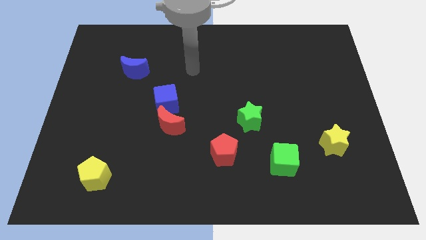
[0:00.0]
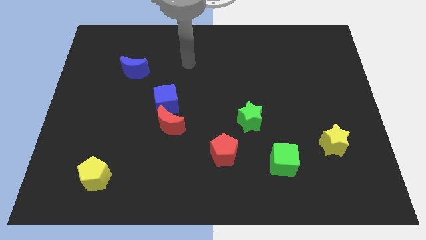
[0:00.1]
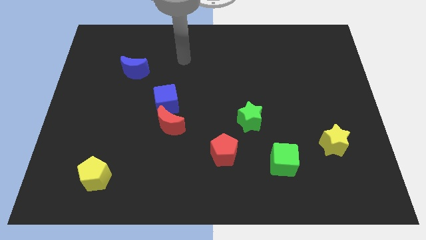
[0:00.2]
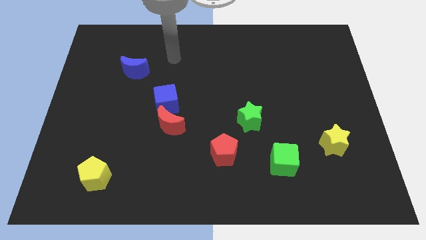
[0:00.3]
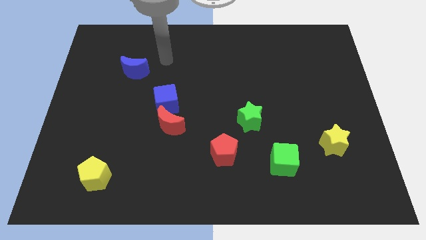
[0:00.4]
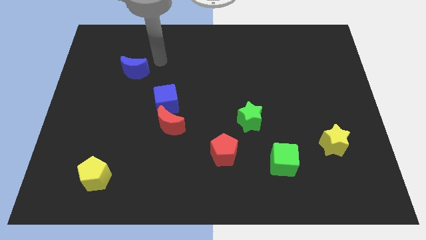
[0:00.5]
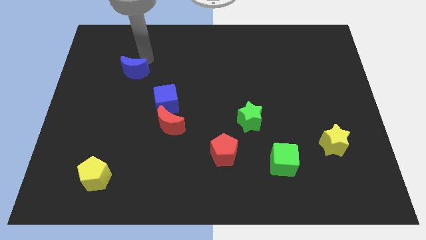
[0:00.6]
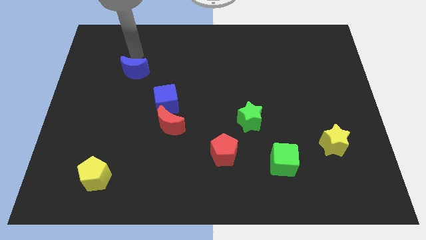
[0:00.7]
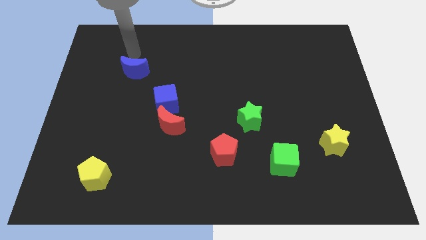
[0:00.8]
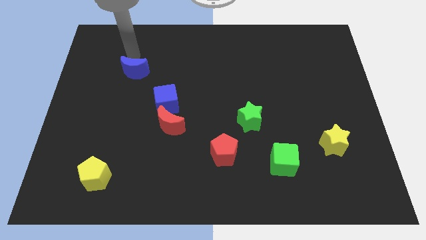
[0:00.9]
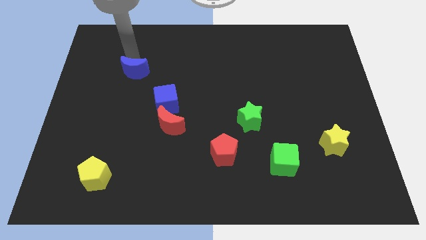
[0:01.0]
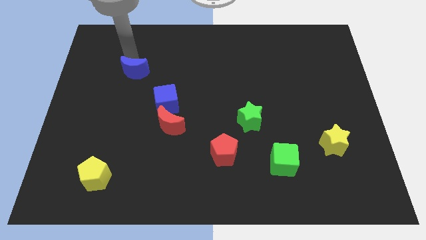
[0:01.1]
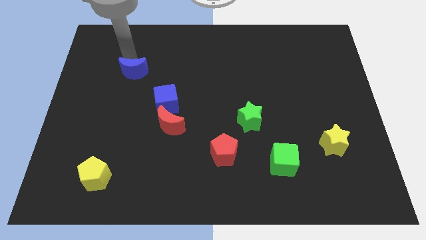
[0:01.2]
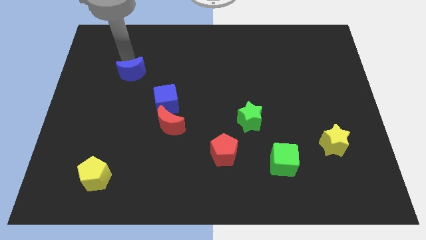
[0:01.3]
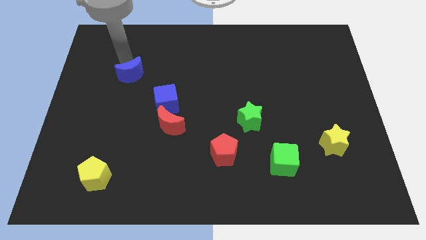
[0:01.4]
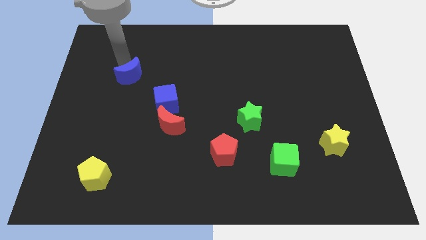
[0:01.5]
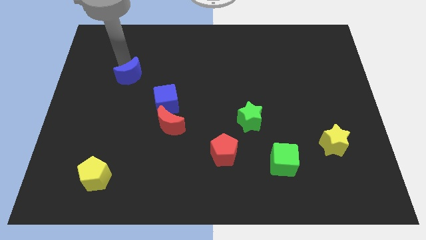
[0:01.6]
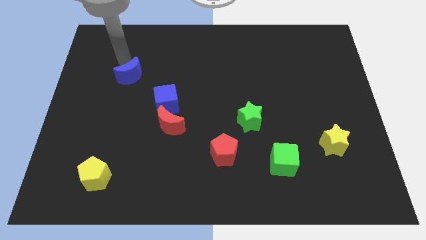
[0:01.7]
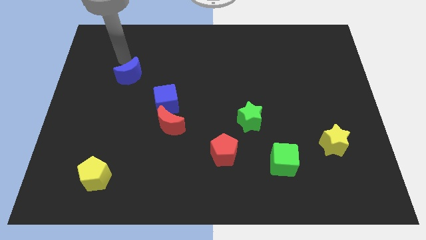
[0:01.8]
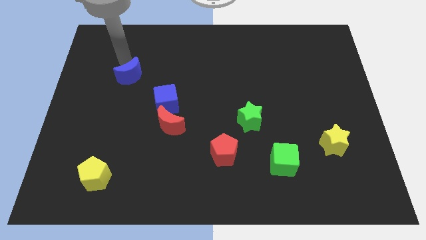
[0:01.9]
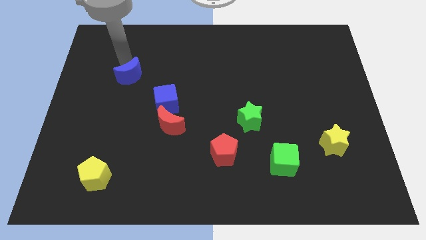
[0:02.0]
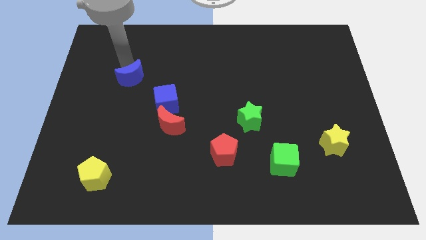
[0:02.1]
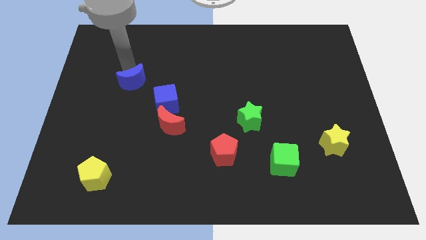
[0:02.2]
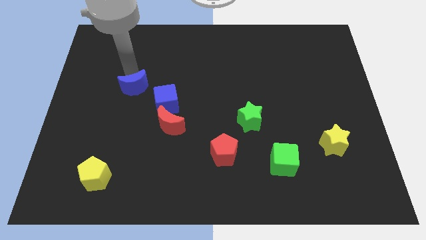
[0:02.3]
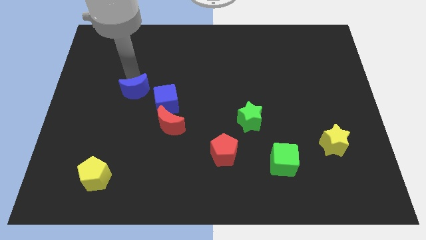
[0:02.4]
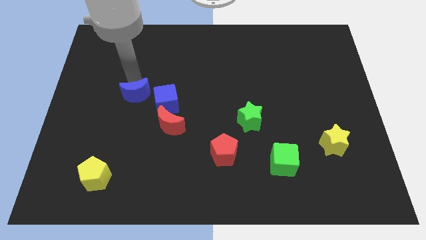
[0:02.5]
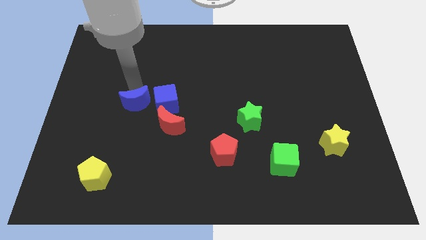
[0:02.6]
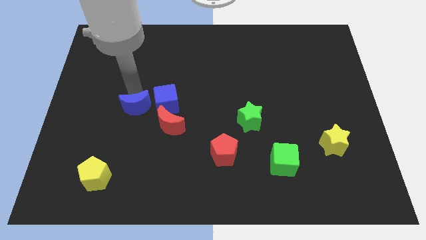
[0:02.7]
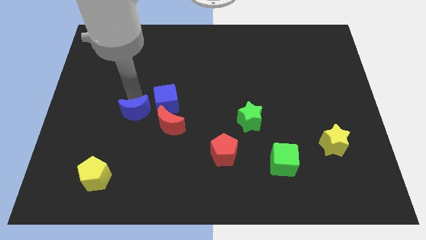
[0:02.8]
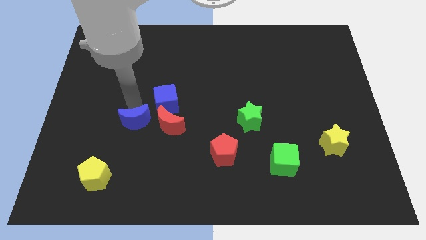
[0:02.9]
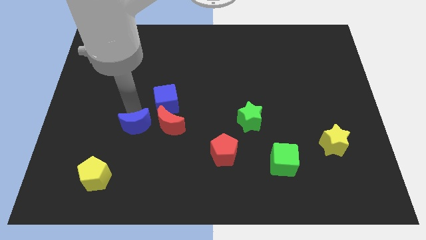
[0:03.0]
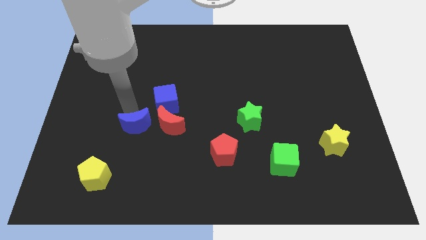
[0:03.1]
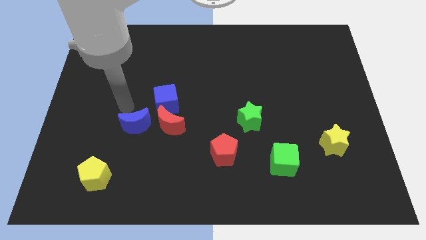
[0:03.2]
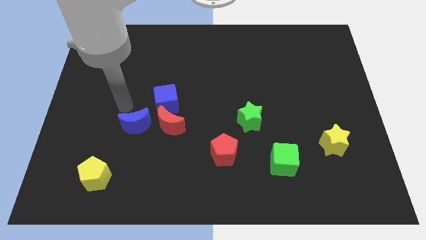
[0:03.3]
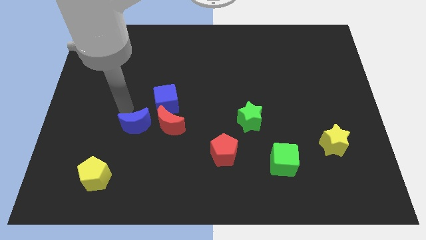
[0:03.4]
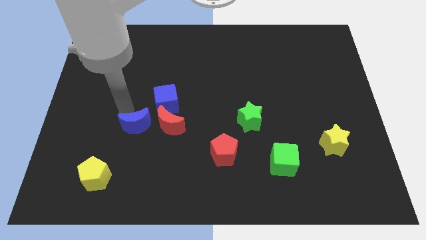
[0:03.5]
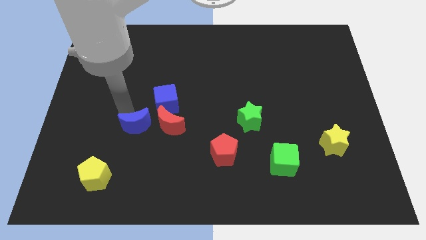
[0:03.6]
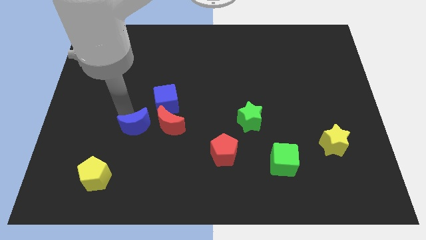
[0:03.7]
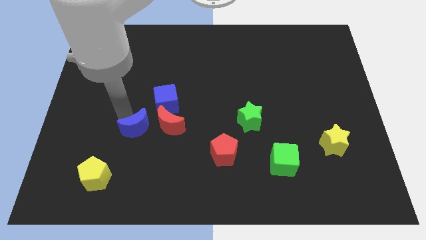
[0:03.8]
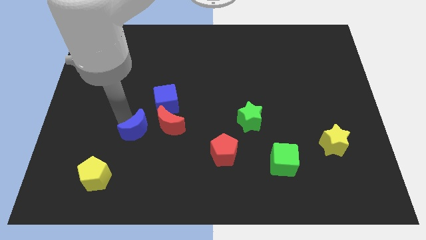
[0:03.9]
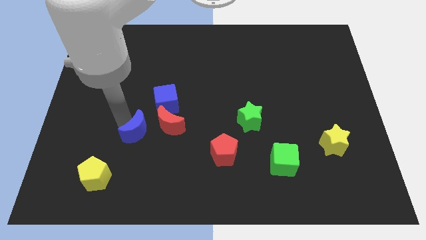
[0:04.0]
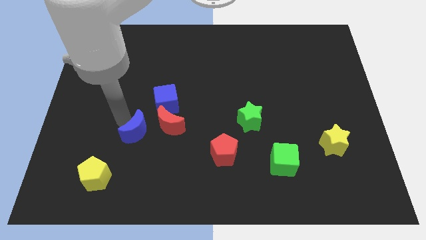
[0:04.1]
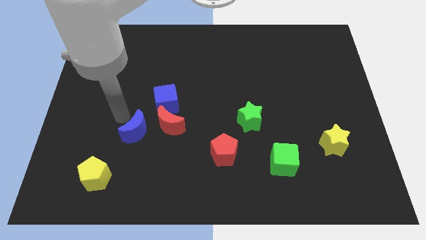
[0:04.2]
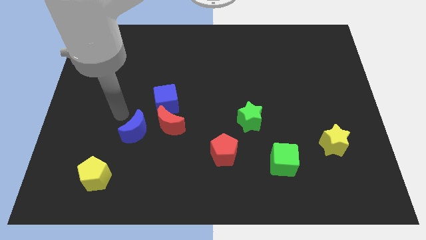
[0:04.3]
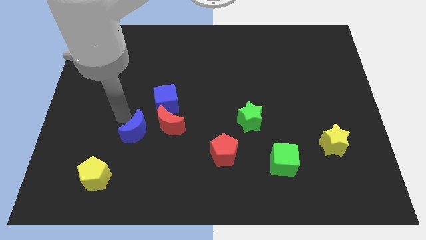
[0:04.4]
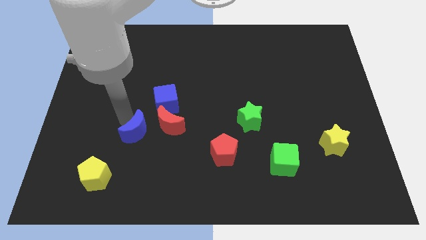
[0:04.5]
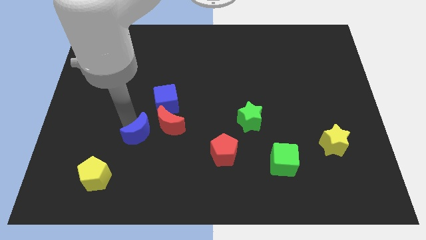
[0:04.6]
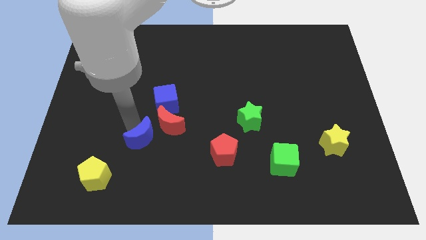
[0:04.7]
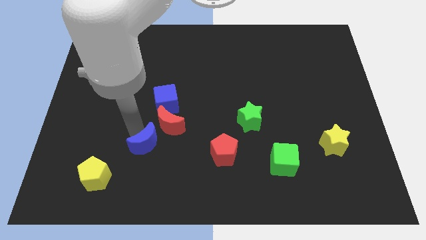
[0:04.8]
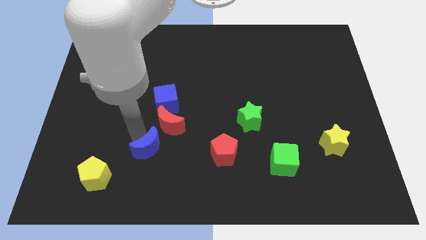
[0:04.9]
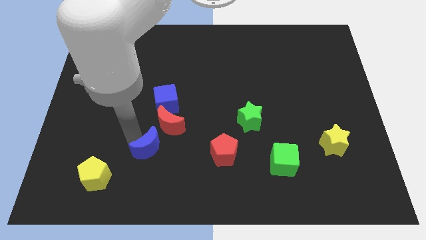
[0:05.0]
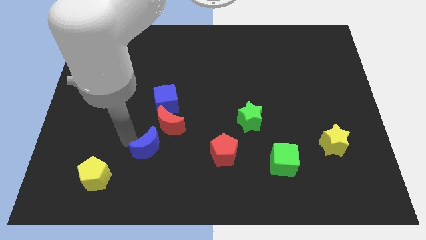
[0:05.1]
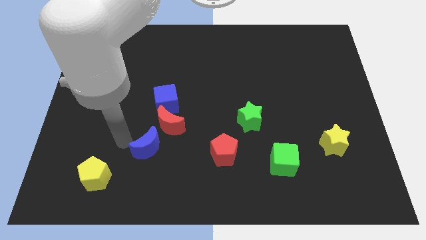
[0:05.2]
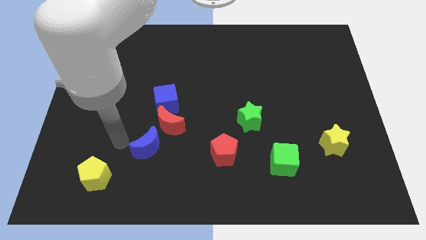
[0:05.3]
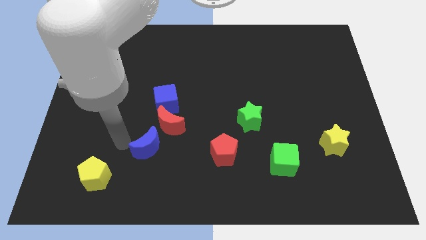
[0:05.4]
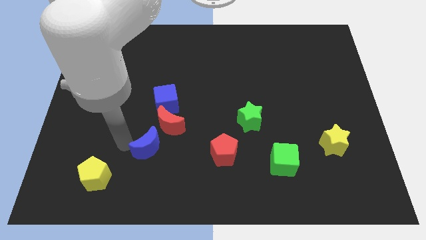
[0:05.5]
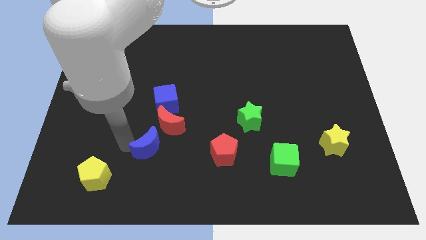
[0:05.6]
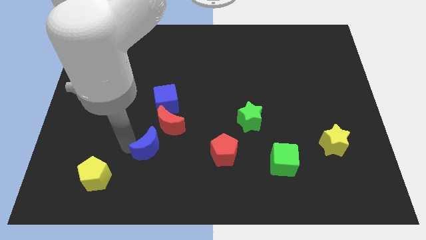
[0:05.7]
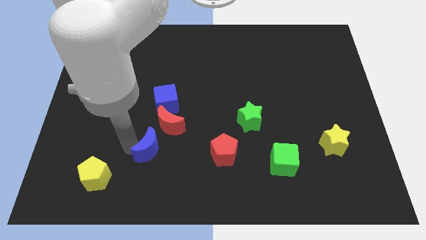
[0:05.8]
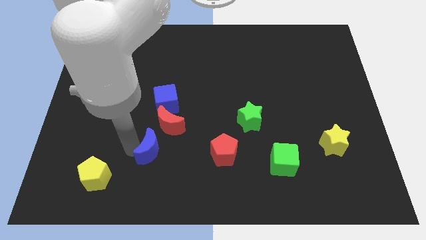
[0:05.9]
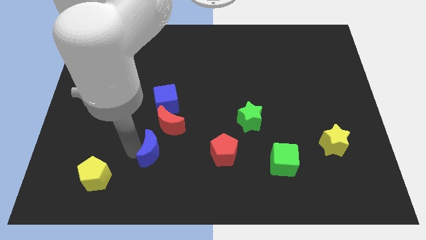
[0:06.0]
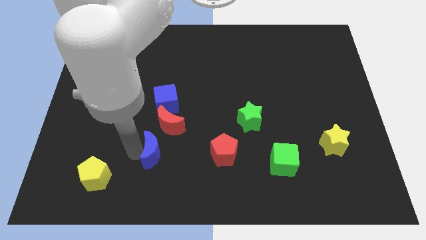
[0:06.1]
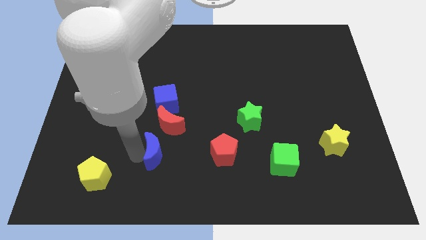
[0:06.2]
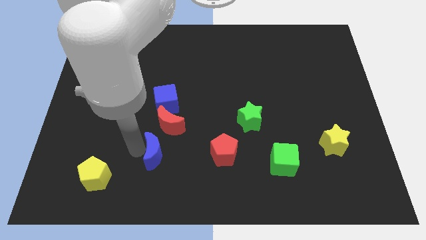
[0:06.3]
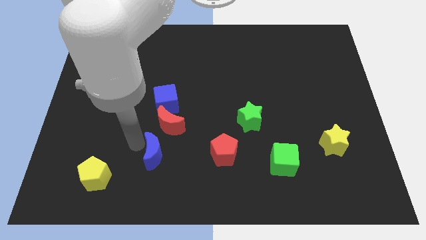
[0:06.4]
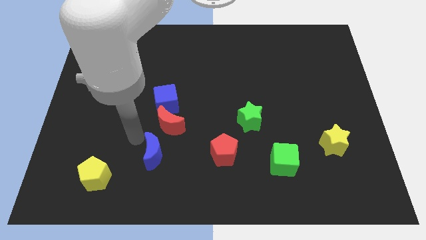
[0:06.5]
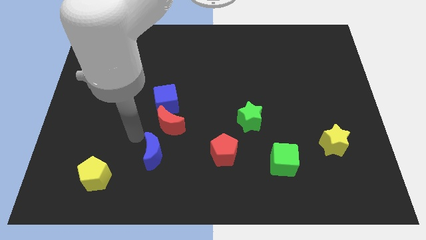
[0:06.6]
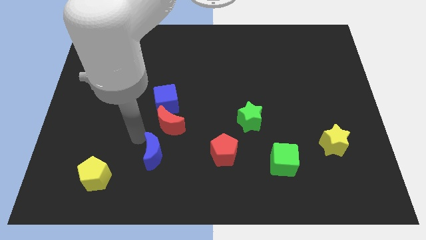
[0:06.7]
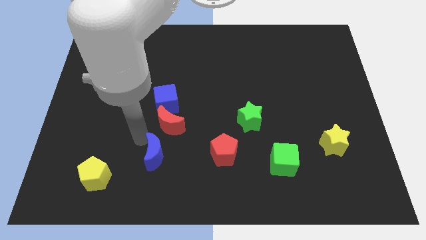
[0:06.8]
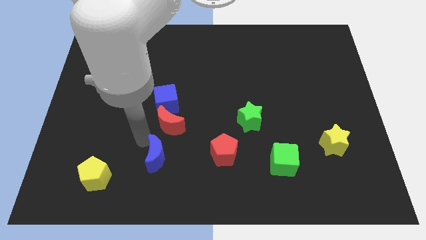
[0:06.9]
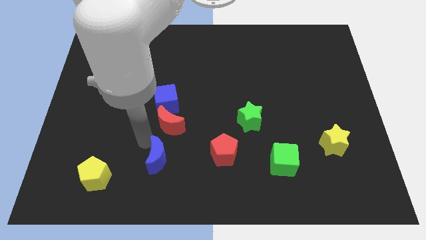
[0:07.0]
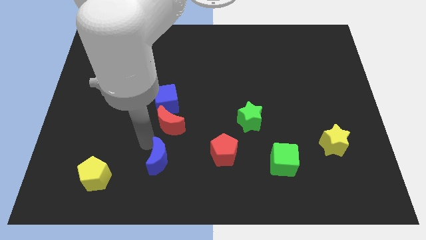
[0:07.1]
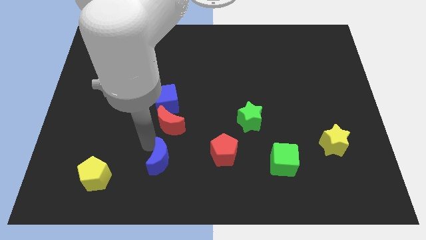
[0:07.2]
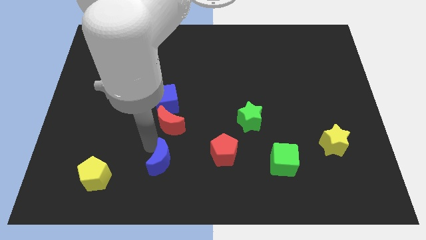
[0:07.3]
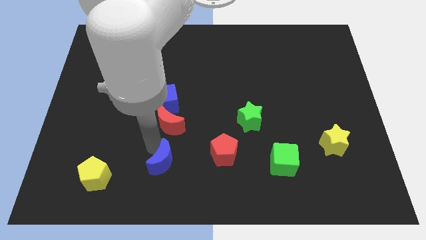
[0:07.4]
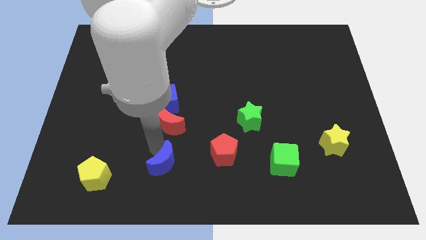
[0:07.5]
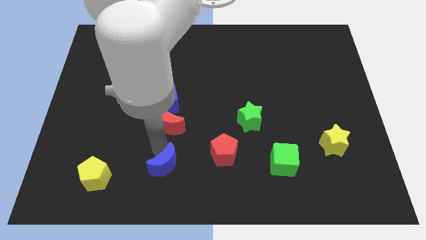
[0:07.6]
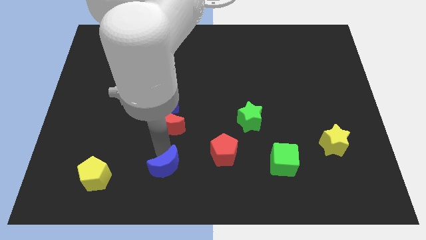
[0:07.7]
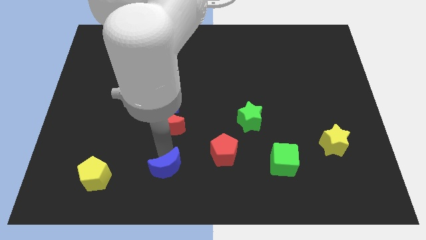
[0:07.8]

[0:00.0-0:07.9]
move the blue moon to the bottom side
